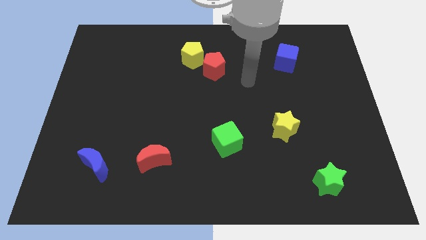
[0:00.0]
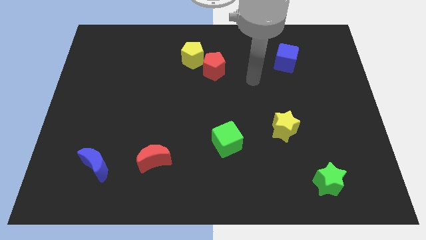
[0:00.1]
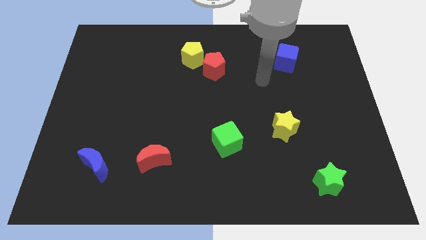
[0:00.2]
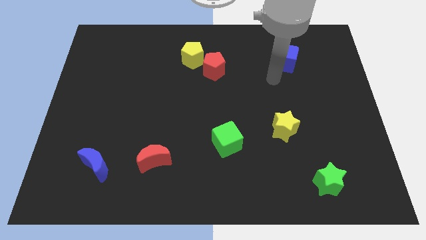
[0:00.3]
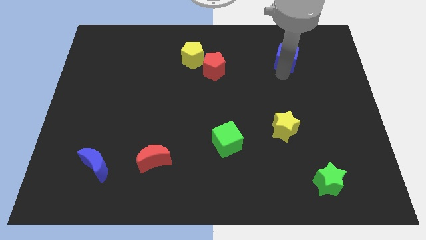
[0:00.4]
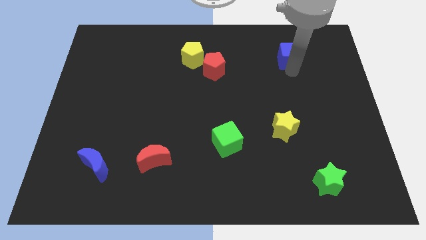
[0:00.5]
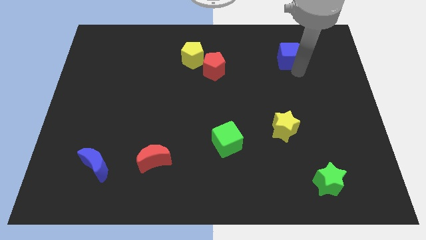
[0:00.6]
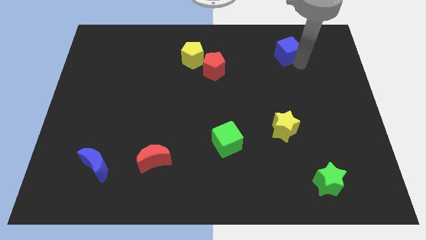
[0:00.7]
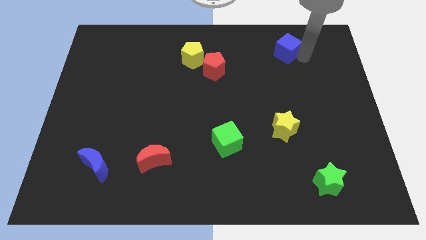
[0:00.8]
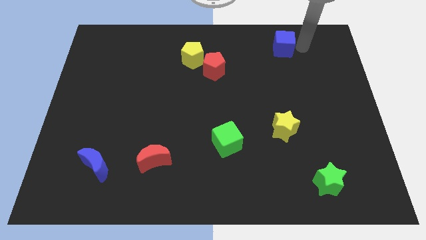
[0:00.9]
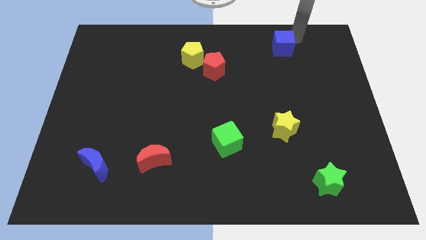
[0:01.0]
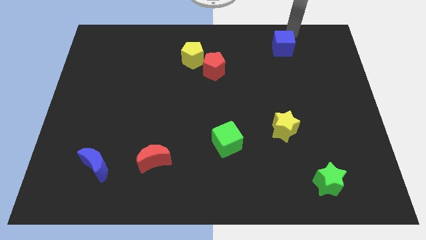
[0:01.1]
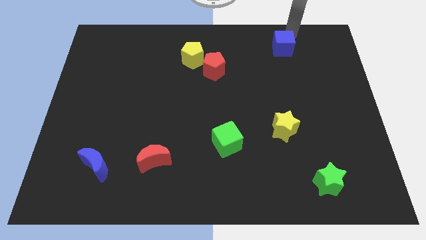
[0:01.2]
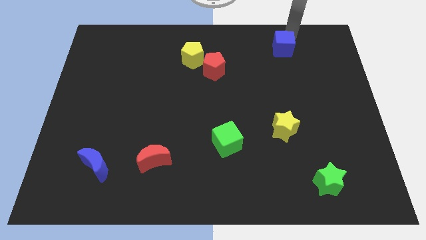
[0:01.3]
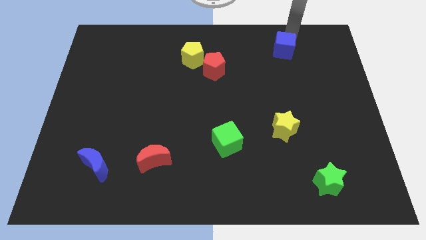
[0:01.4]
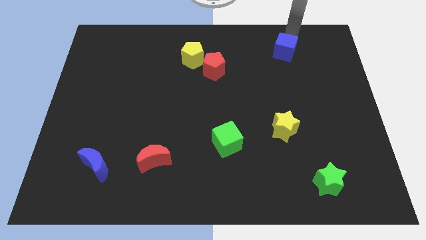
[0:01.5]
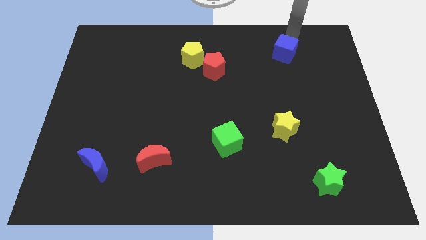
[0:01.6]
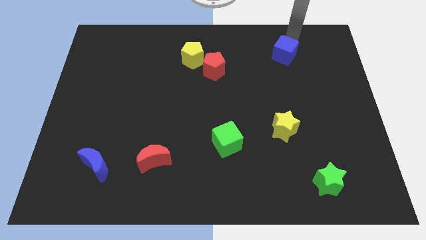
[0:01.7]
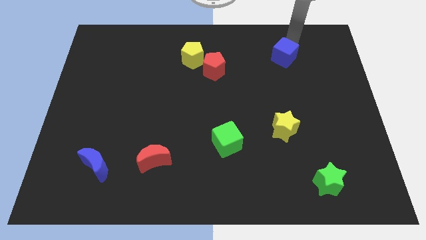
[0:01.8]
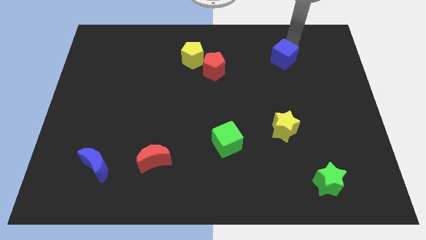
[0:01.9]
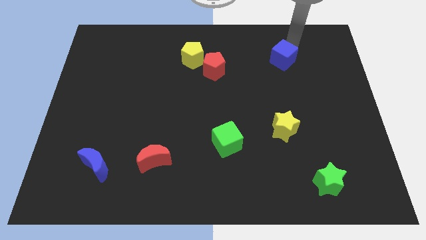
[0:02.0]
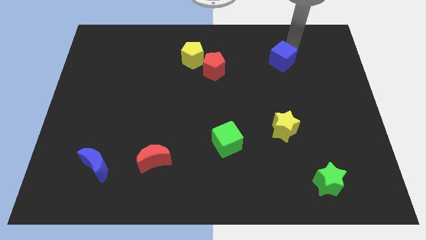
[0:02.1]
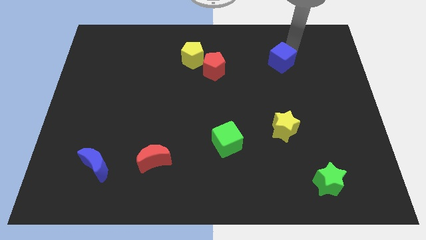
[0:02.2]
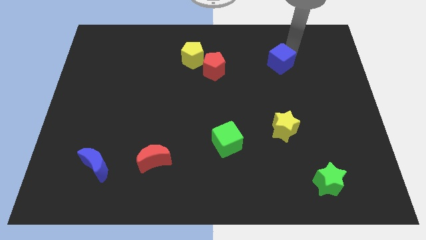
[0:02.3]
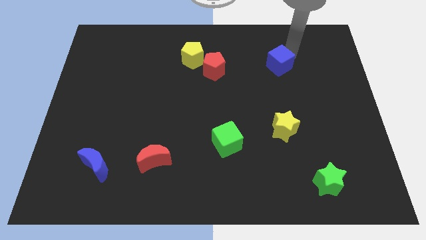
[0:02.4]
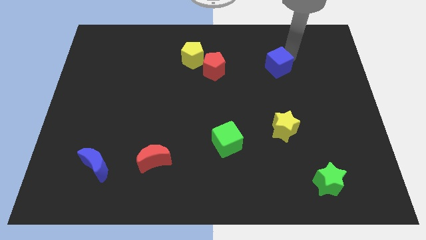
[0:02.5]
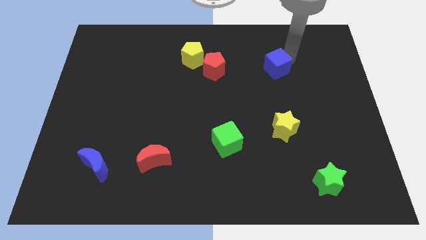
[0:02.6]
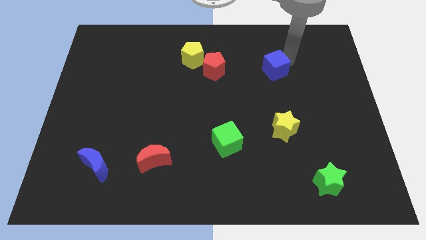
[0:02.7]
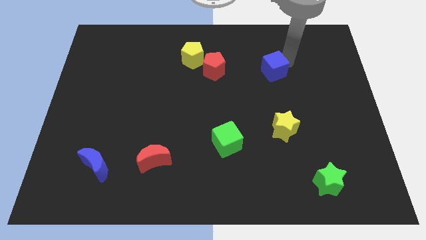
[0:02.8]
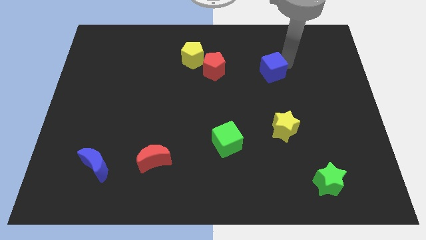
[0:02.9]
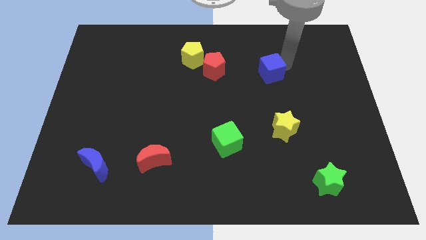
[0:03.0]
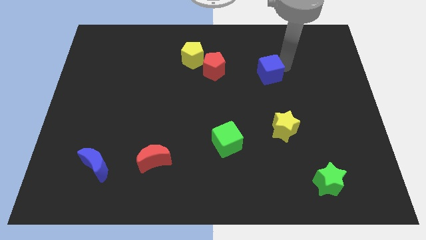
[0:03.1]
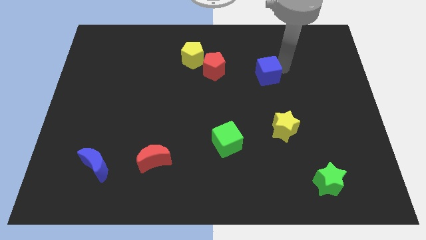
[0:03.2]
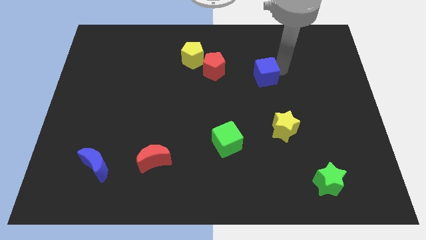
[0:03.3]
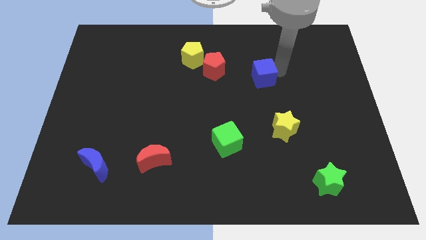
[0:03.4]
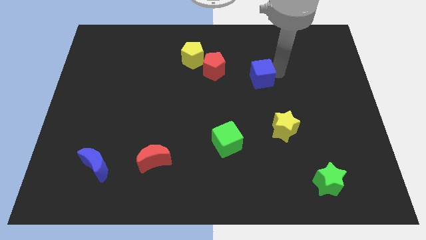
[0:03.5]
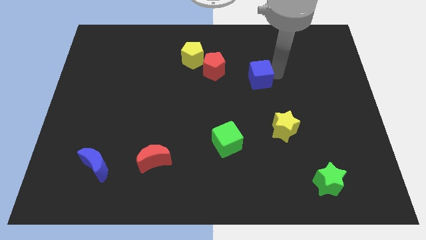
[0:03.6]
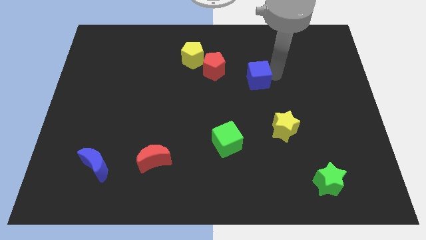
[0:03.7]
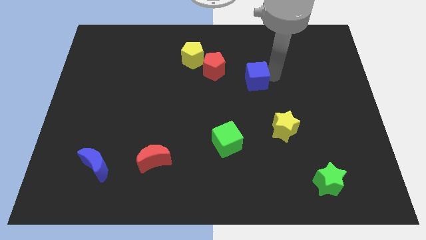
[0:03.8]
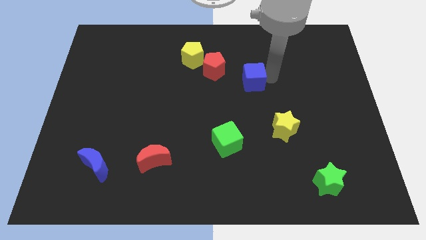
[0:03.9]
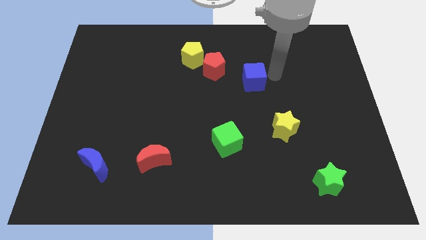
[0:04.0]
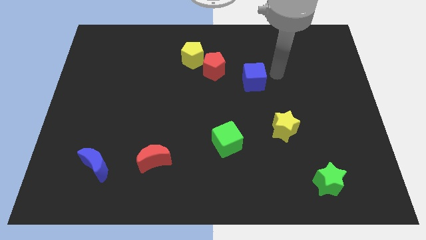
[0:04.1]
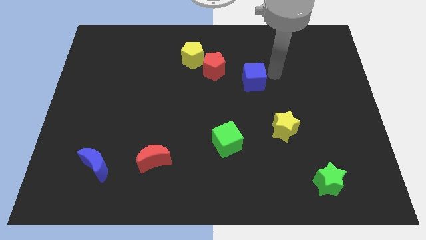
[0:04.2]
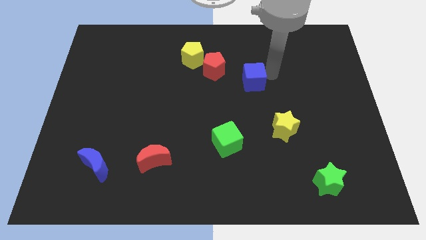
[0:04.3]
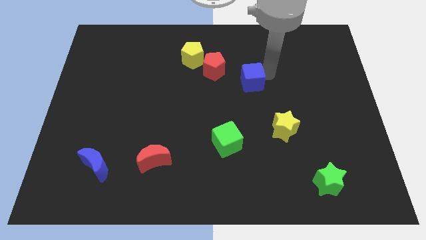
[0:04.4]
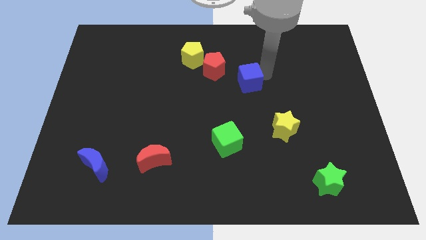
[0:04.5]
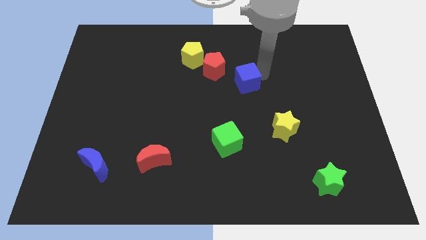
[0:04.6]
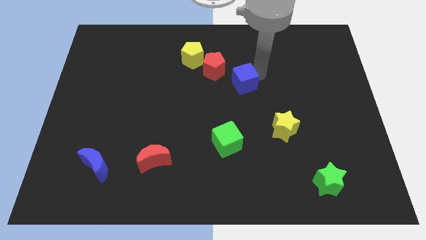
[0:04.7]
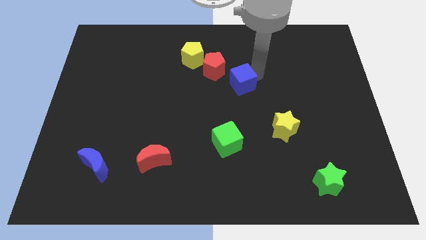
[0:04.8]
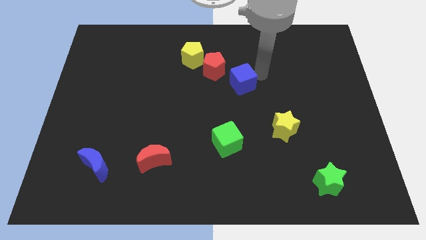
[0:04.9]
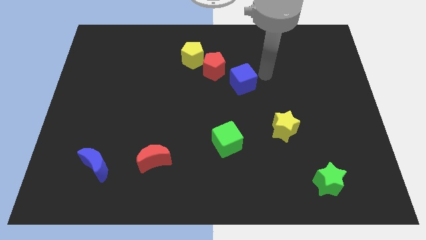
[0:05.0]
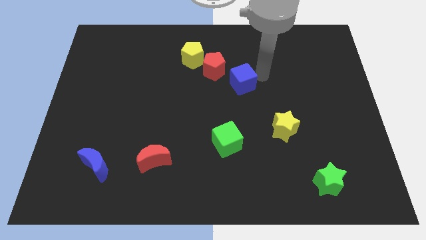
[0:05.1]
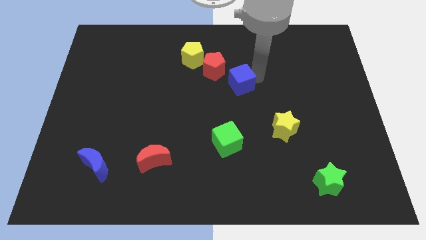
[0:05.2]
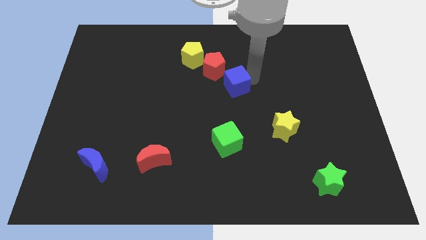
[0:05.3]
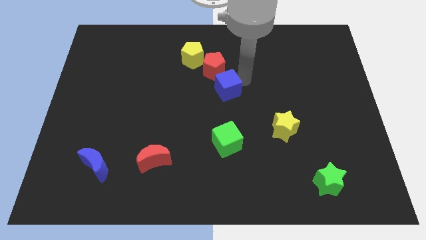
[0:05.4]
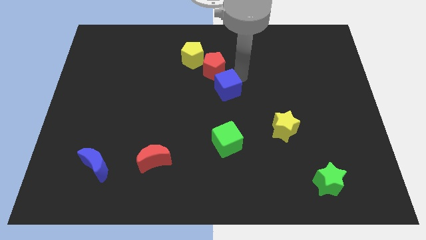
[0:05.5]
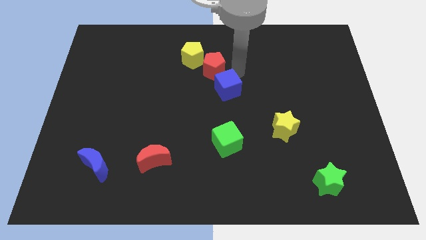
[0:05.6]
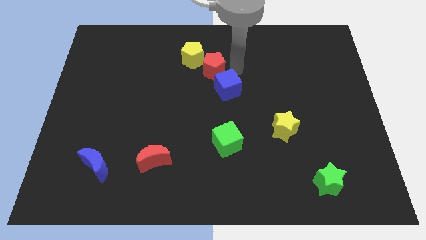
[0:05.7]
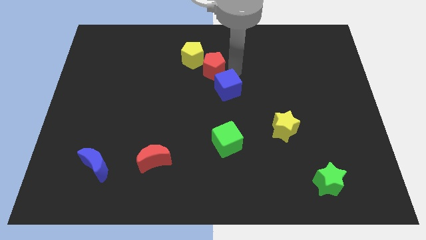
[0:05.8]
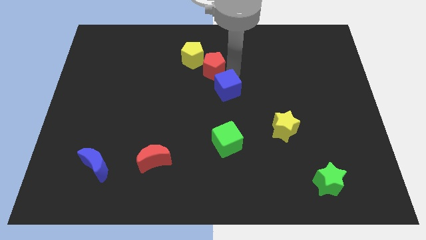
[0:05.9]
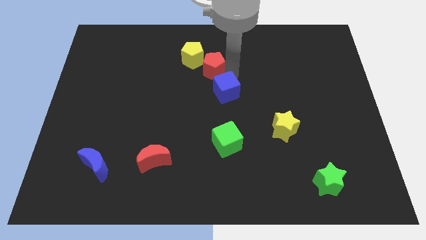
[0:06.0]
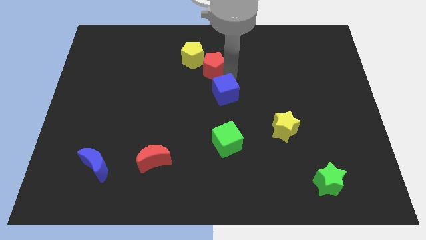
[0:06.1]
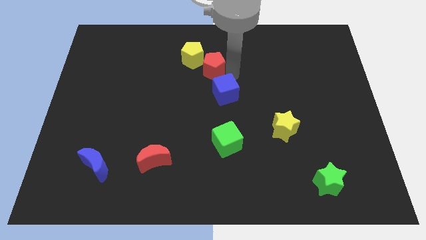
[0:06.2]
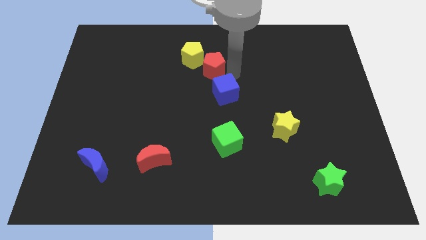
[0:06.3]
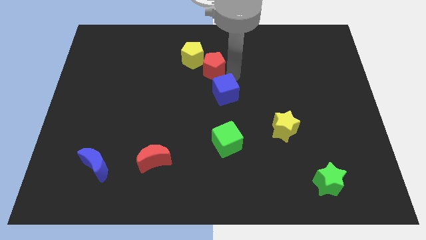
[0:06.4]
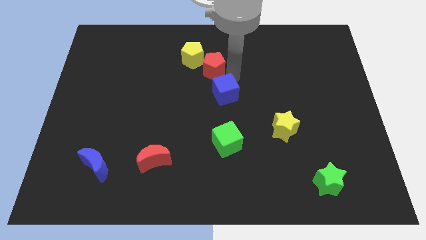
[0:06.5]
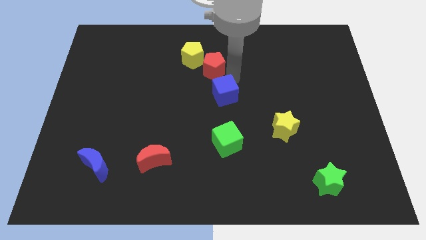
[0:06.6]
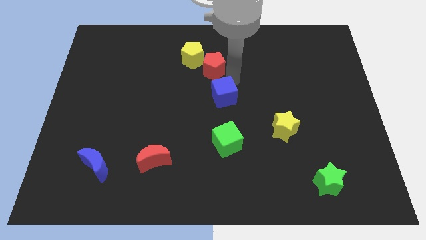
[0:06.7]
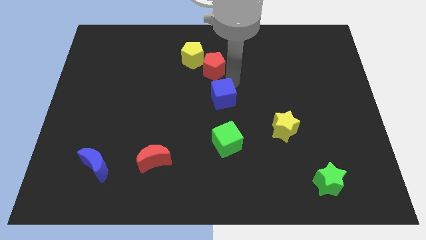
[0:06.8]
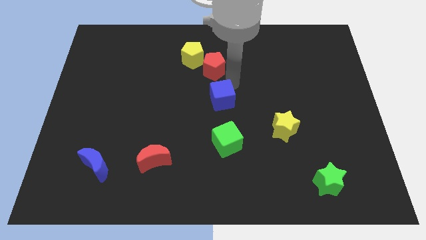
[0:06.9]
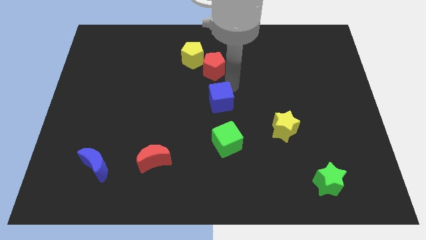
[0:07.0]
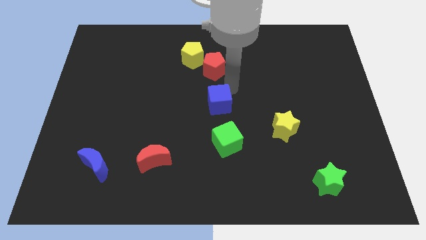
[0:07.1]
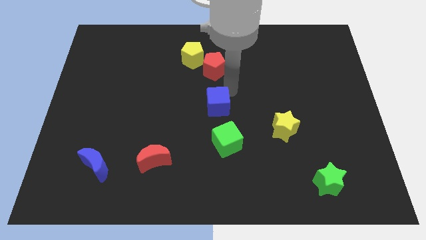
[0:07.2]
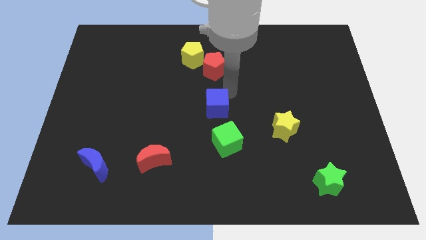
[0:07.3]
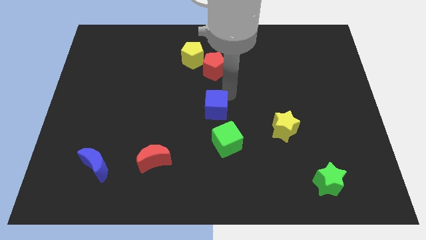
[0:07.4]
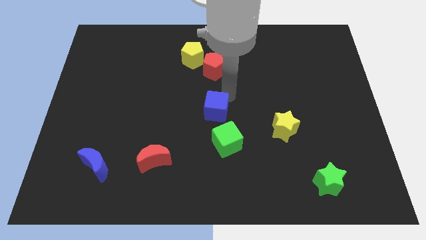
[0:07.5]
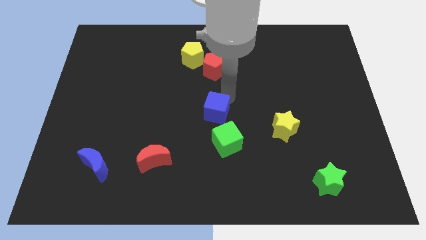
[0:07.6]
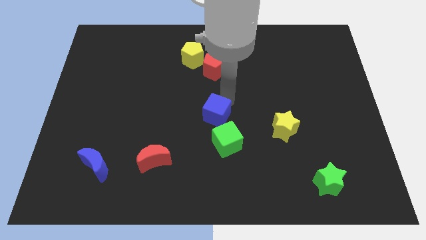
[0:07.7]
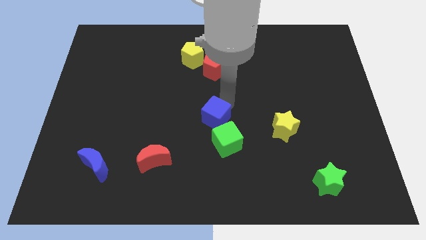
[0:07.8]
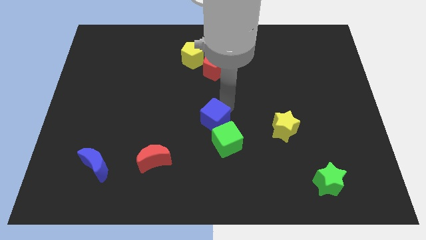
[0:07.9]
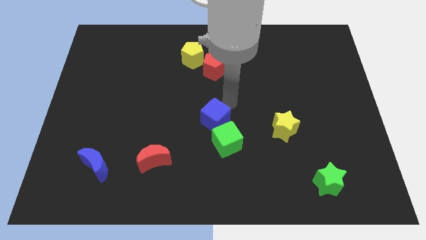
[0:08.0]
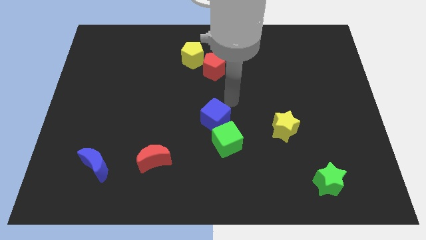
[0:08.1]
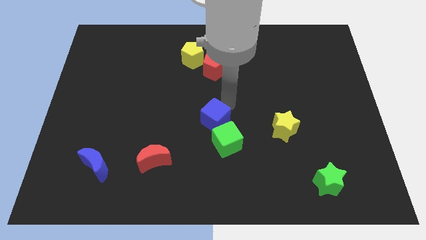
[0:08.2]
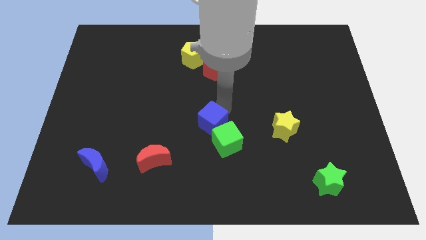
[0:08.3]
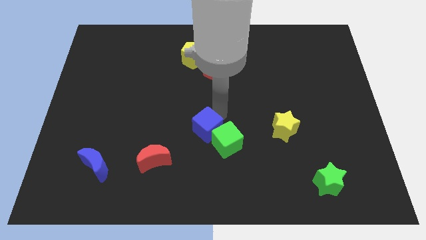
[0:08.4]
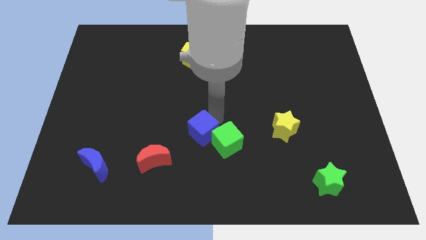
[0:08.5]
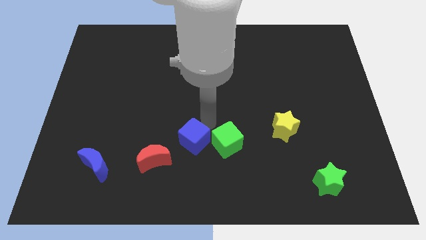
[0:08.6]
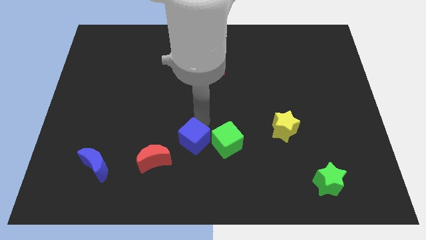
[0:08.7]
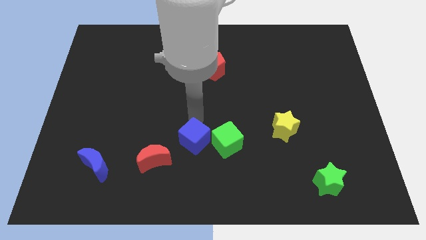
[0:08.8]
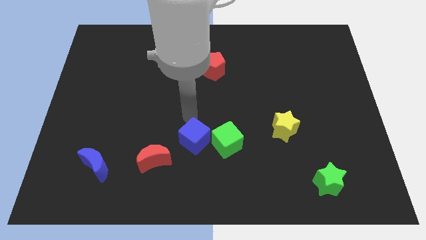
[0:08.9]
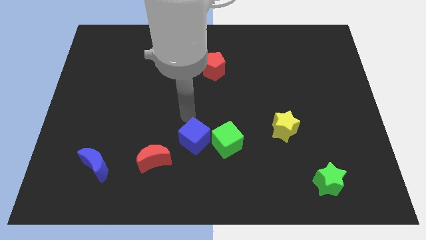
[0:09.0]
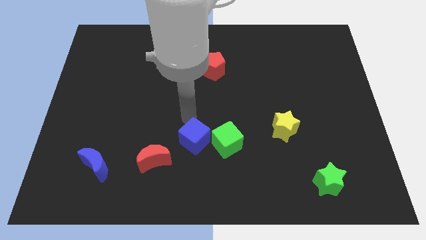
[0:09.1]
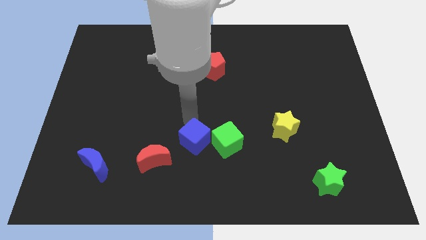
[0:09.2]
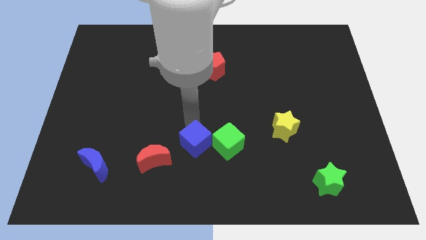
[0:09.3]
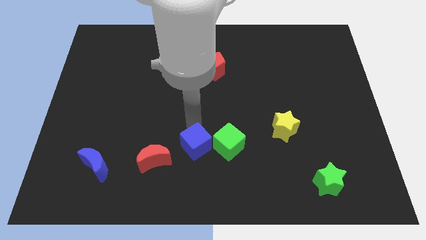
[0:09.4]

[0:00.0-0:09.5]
put the blue cube to the bottom left of the green cube
